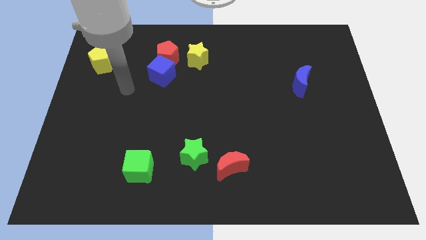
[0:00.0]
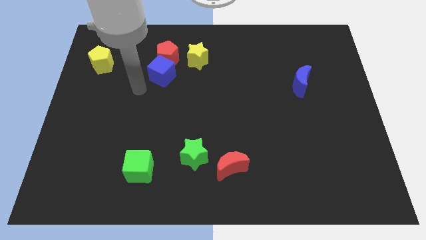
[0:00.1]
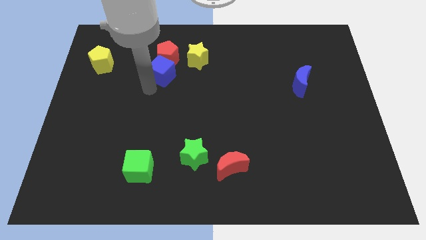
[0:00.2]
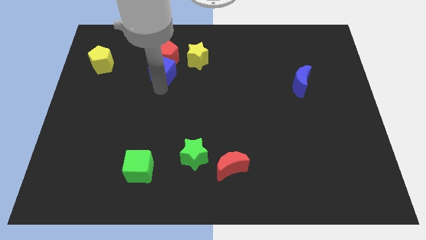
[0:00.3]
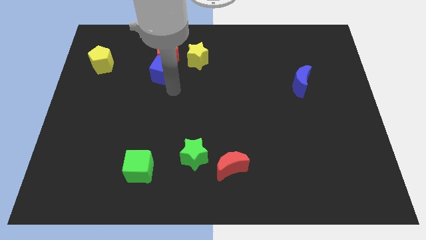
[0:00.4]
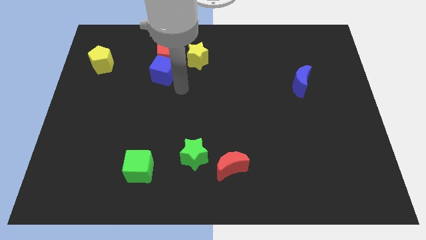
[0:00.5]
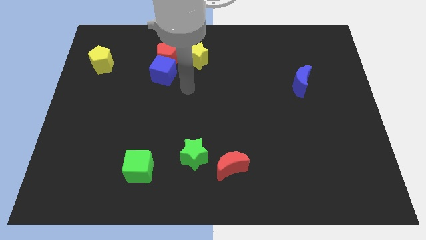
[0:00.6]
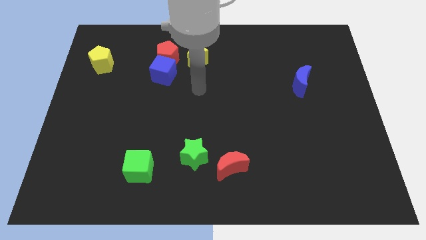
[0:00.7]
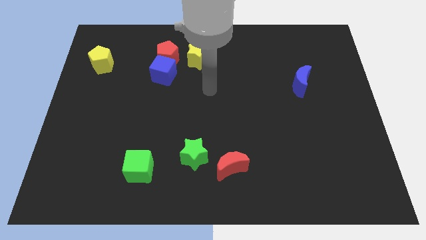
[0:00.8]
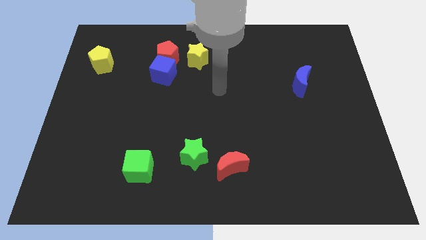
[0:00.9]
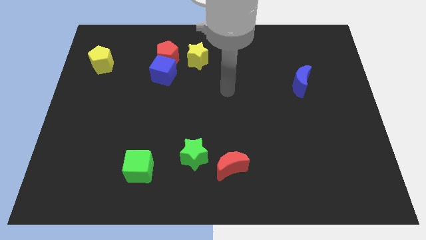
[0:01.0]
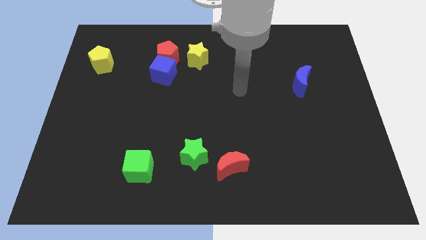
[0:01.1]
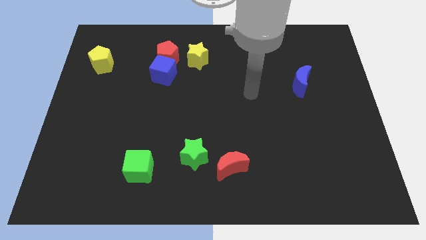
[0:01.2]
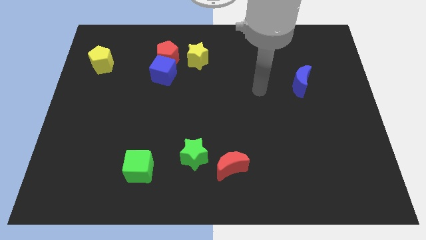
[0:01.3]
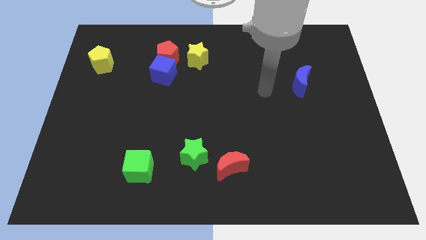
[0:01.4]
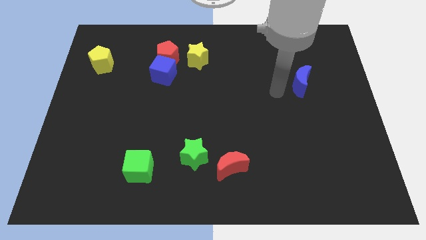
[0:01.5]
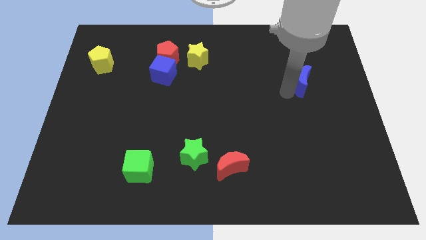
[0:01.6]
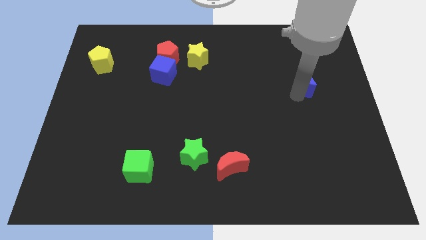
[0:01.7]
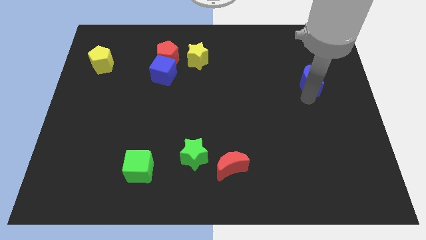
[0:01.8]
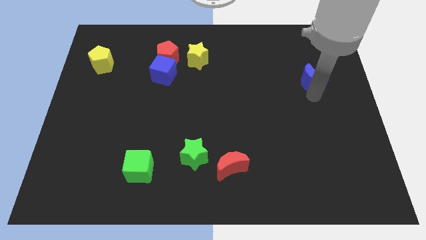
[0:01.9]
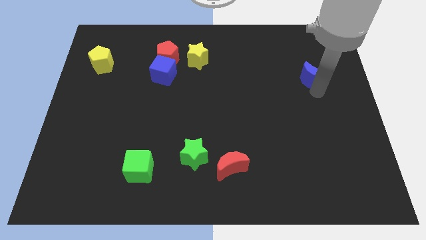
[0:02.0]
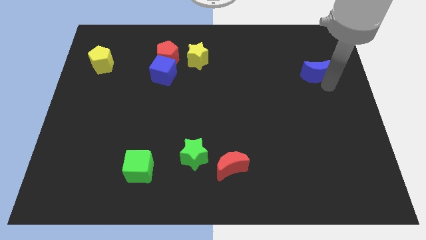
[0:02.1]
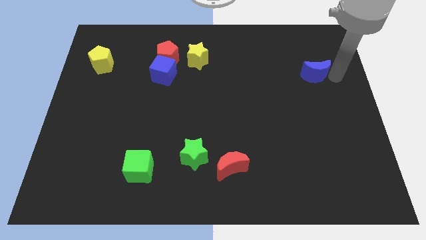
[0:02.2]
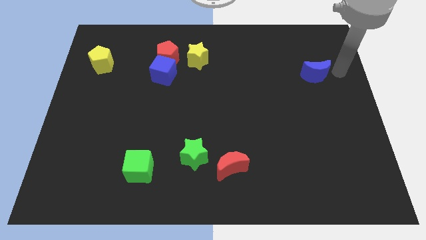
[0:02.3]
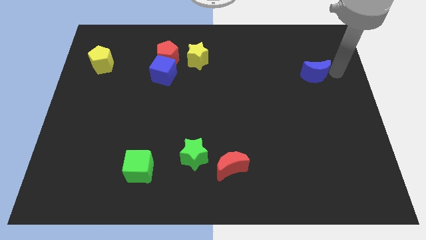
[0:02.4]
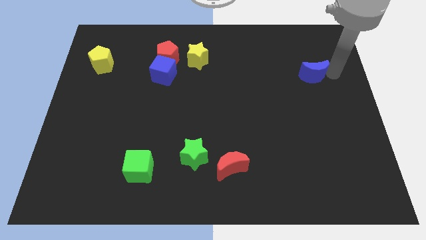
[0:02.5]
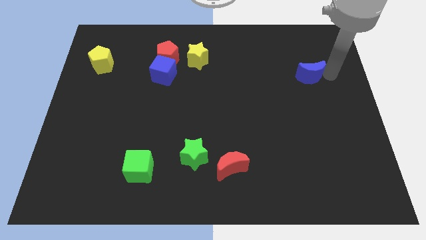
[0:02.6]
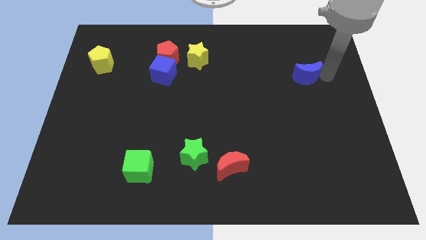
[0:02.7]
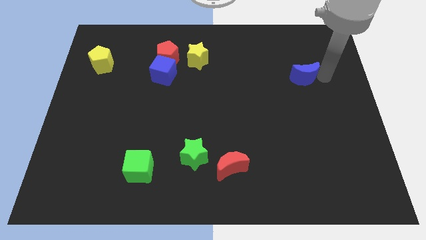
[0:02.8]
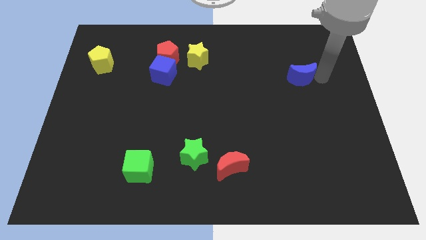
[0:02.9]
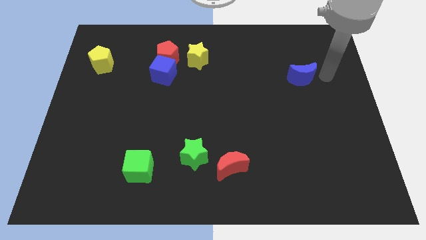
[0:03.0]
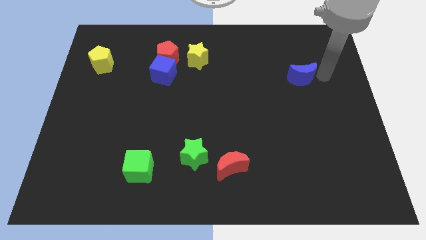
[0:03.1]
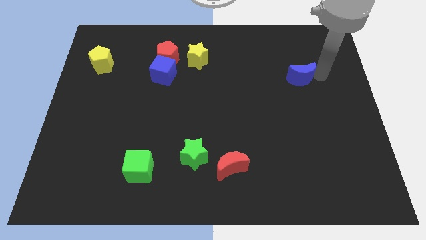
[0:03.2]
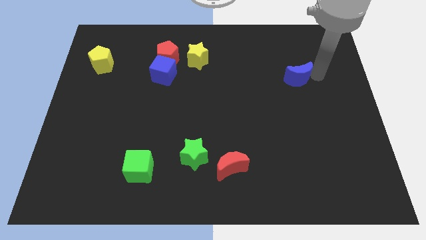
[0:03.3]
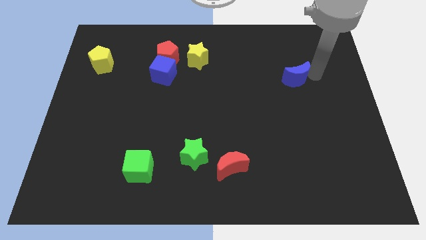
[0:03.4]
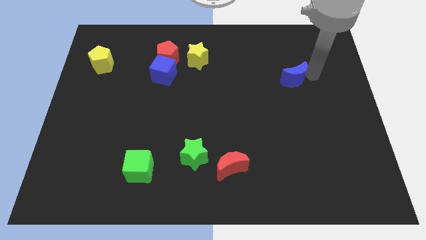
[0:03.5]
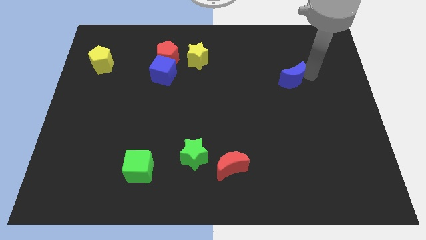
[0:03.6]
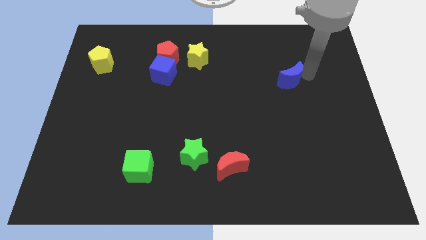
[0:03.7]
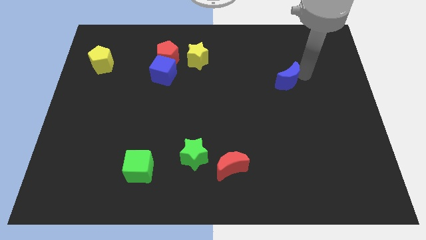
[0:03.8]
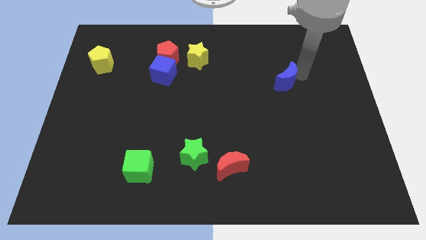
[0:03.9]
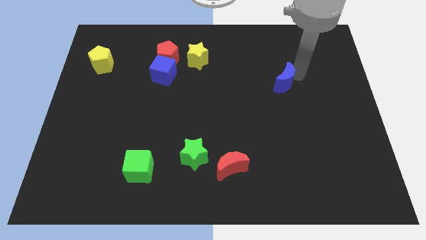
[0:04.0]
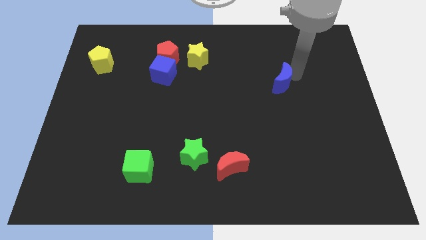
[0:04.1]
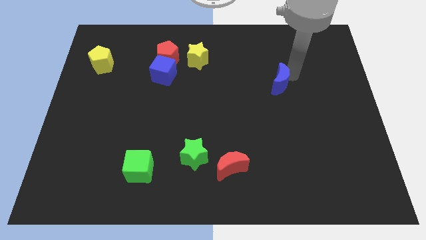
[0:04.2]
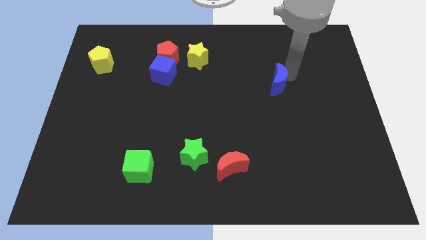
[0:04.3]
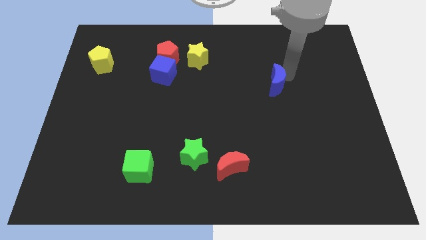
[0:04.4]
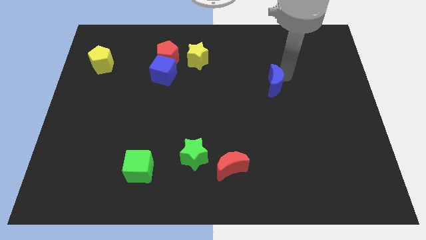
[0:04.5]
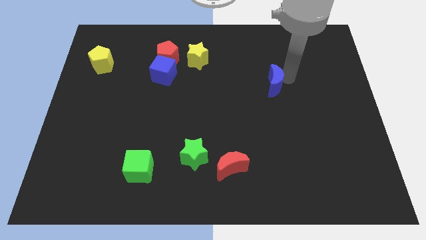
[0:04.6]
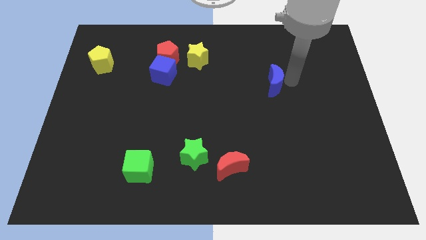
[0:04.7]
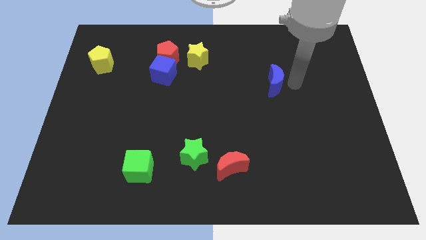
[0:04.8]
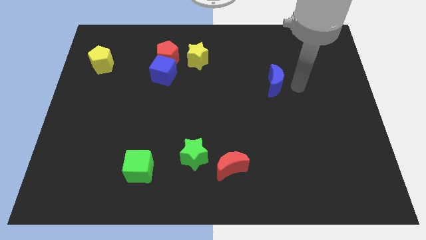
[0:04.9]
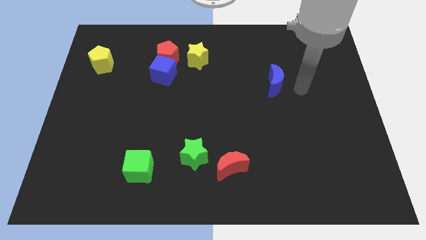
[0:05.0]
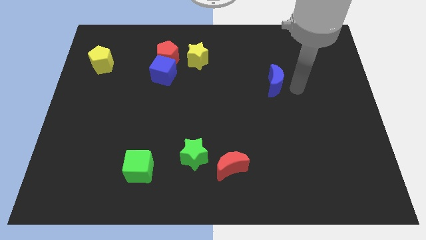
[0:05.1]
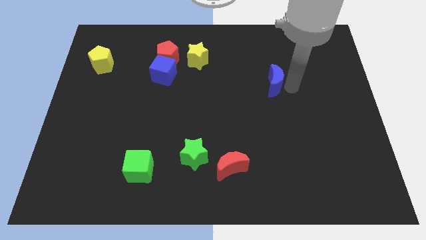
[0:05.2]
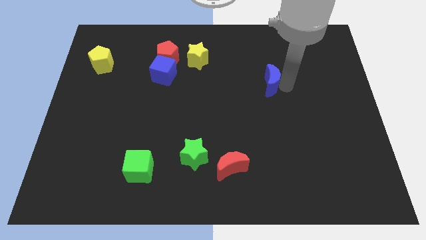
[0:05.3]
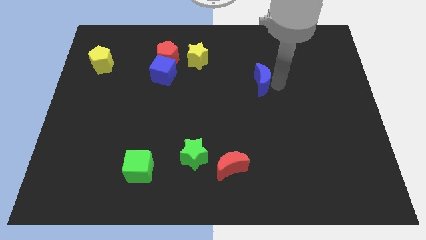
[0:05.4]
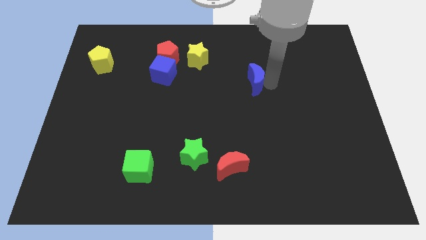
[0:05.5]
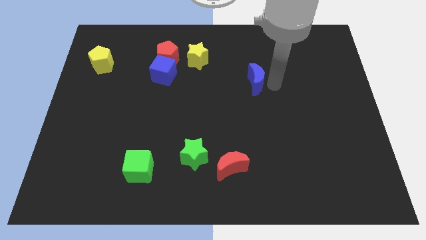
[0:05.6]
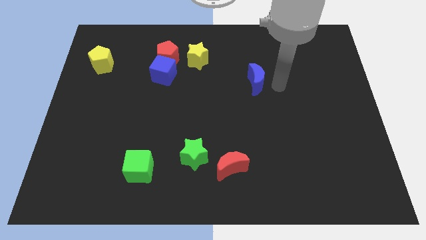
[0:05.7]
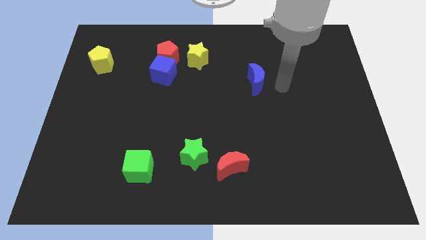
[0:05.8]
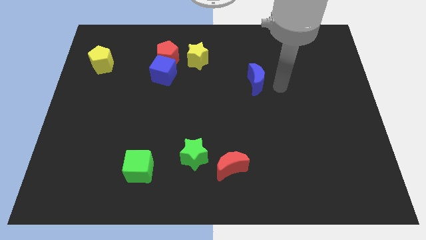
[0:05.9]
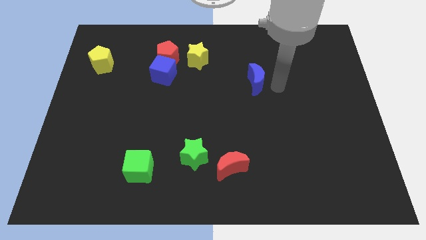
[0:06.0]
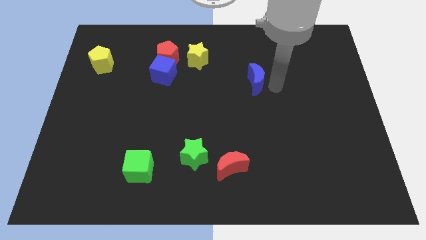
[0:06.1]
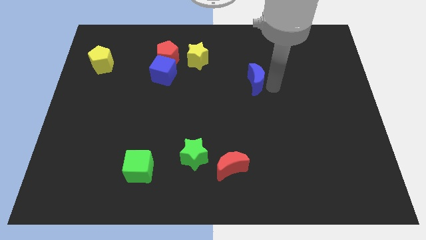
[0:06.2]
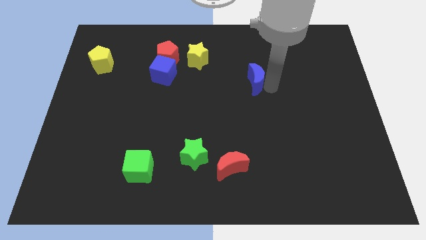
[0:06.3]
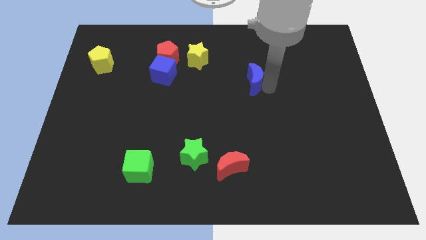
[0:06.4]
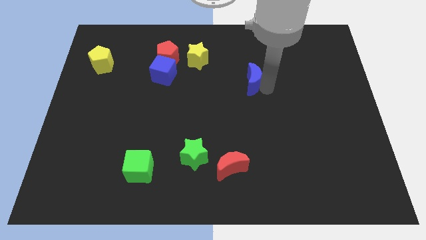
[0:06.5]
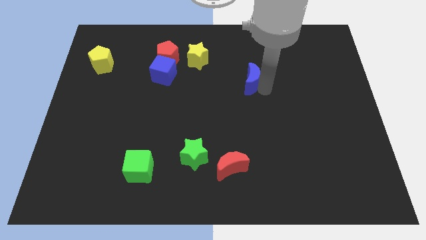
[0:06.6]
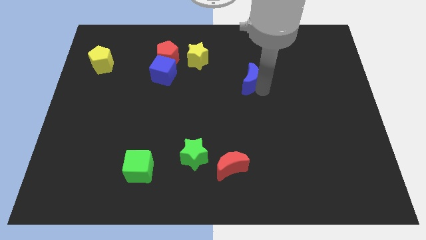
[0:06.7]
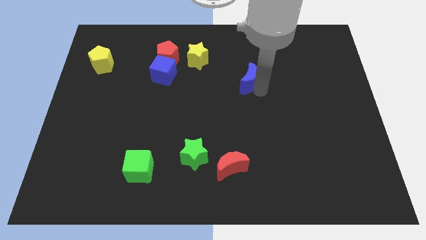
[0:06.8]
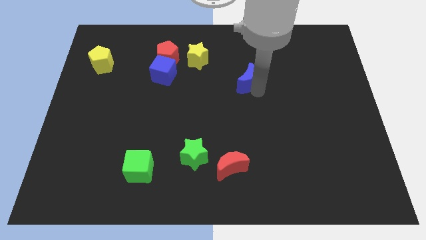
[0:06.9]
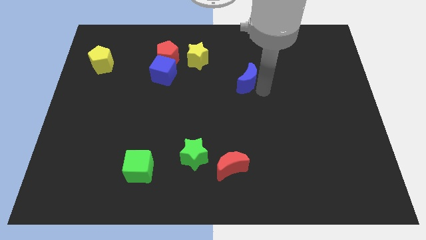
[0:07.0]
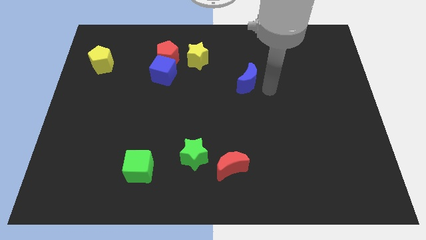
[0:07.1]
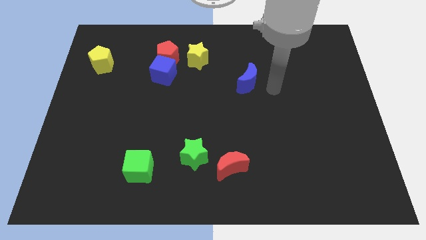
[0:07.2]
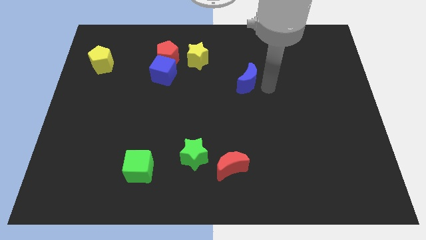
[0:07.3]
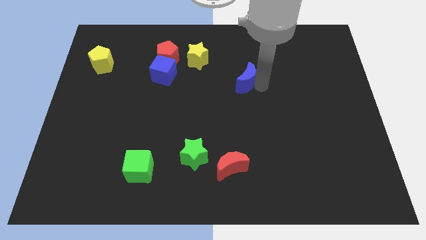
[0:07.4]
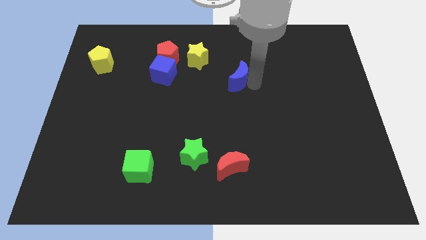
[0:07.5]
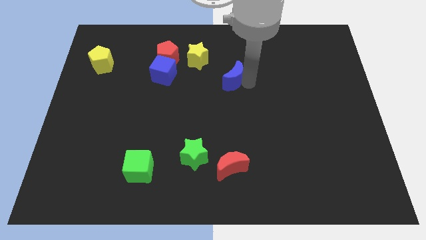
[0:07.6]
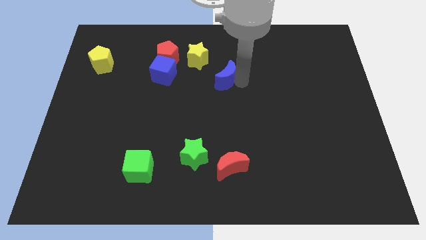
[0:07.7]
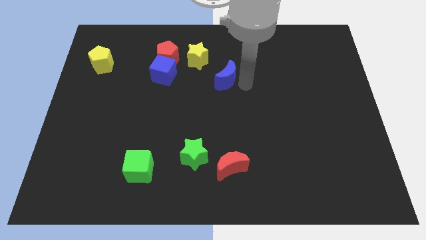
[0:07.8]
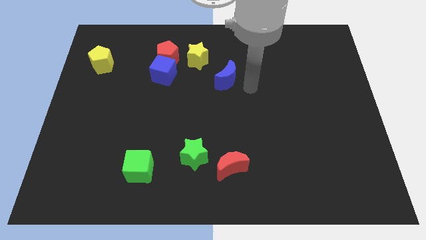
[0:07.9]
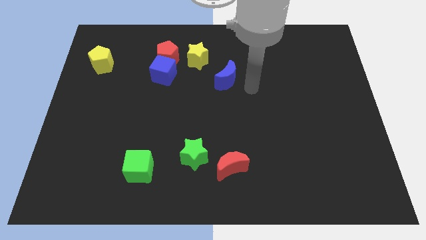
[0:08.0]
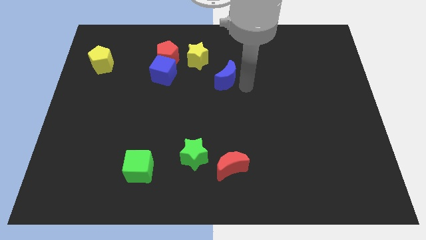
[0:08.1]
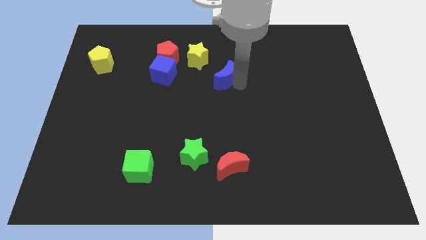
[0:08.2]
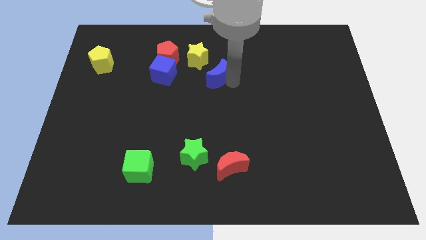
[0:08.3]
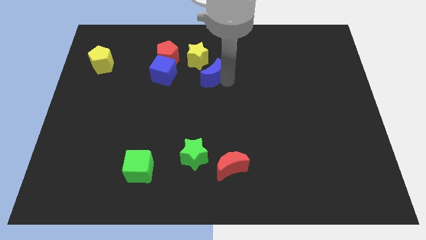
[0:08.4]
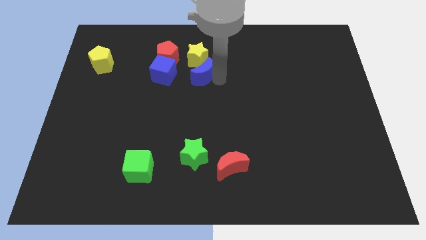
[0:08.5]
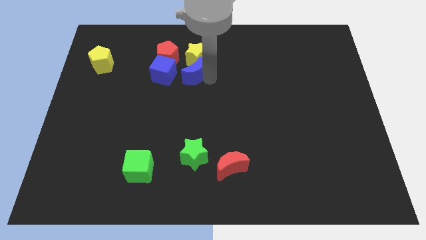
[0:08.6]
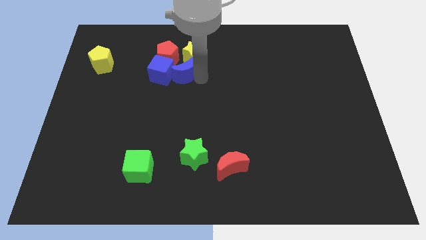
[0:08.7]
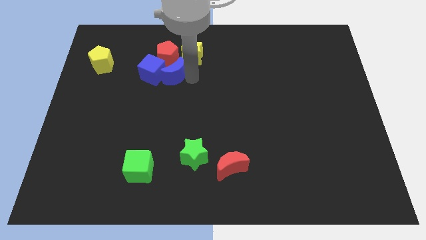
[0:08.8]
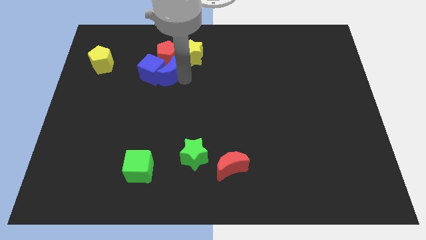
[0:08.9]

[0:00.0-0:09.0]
move the blue moon next to the red pentagon
